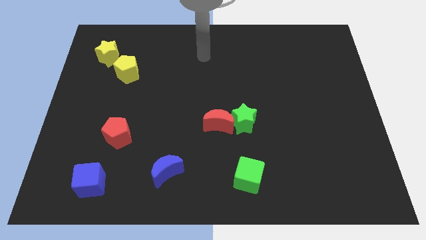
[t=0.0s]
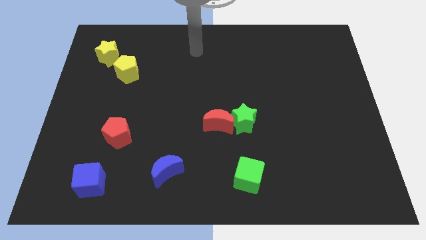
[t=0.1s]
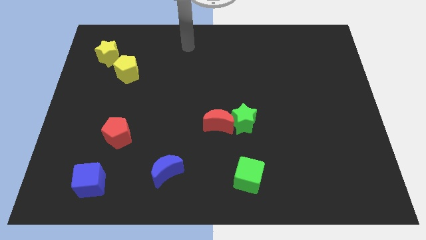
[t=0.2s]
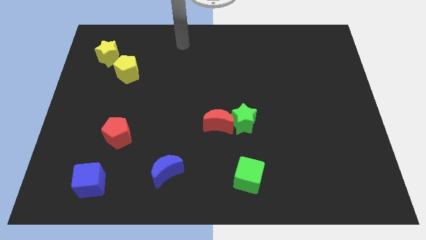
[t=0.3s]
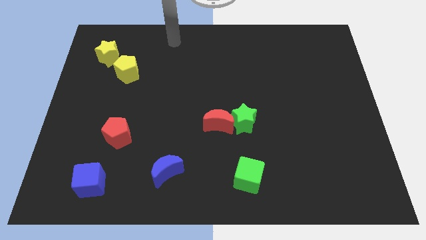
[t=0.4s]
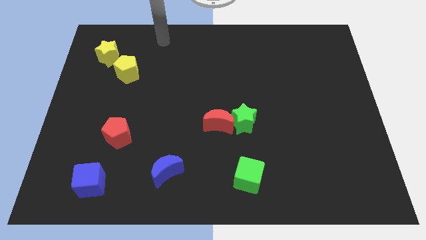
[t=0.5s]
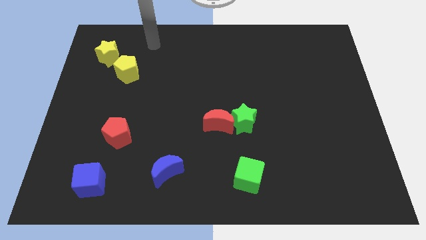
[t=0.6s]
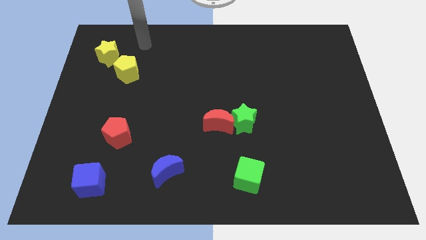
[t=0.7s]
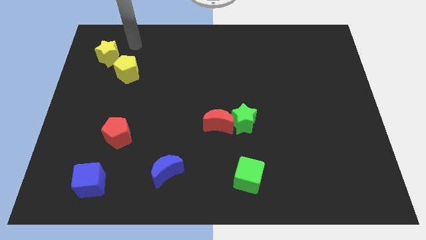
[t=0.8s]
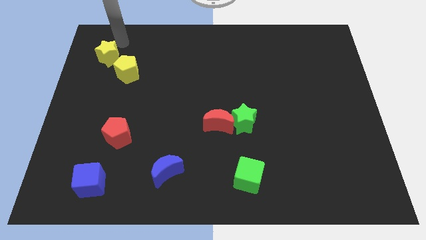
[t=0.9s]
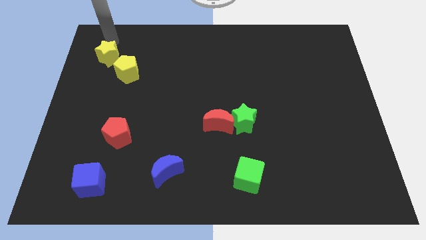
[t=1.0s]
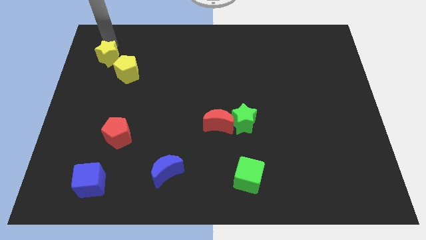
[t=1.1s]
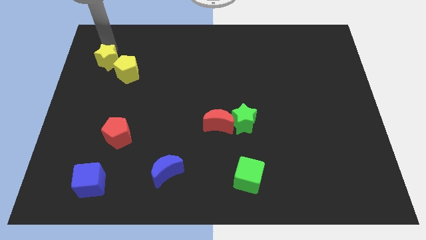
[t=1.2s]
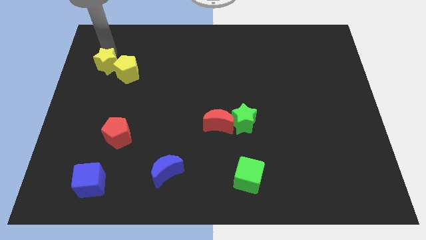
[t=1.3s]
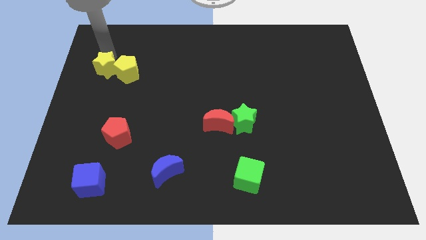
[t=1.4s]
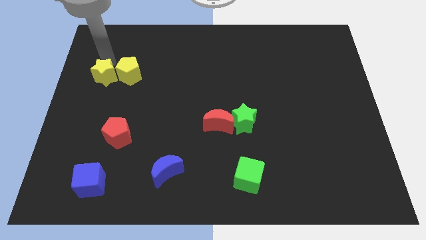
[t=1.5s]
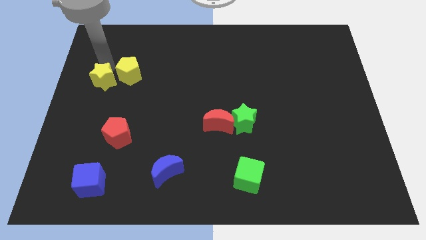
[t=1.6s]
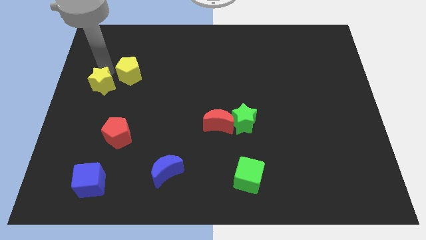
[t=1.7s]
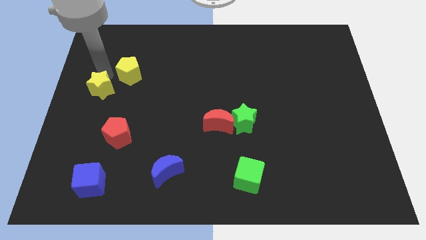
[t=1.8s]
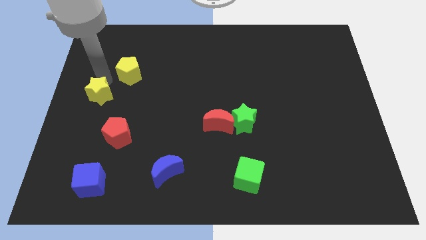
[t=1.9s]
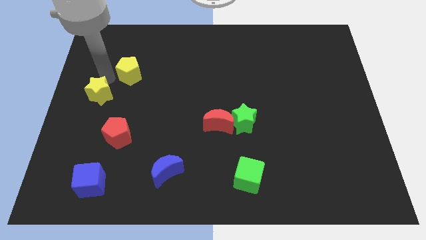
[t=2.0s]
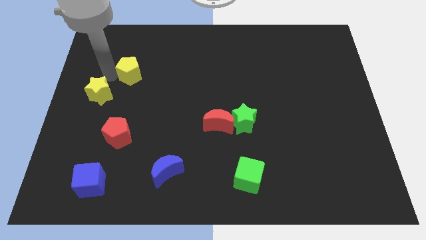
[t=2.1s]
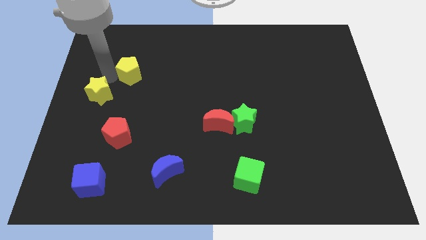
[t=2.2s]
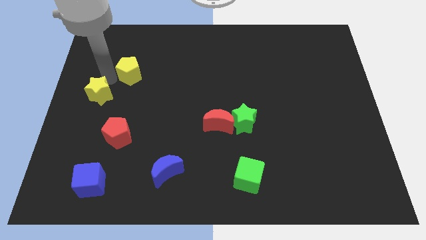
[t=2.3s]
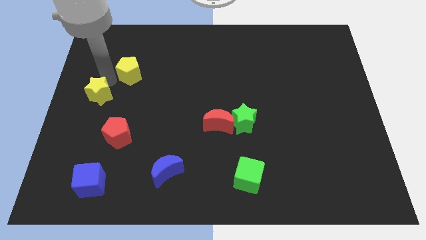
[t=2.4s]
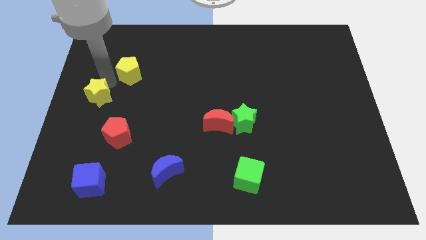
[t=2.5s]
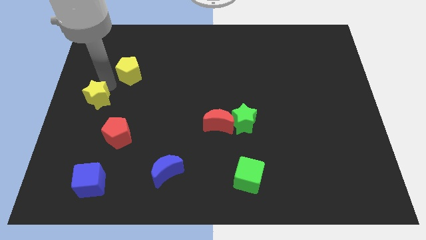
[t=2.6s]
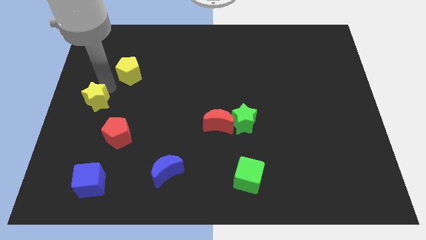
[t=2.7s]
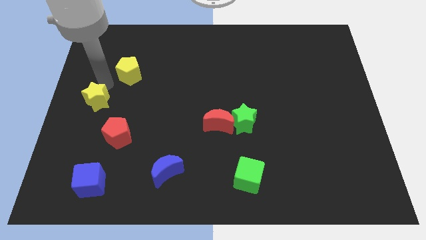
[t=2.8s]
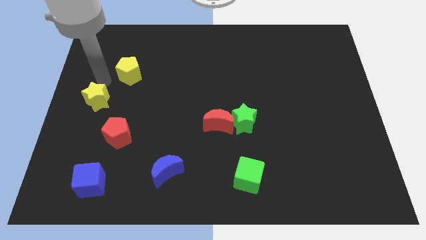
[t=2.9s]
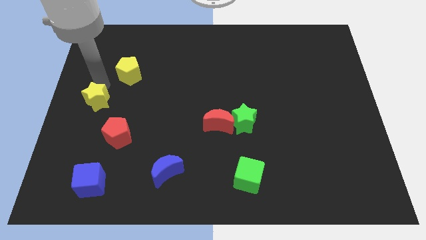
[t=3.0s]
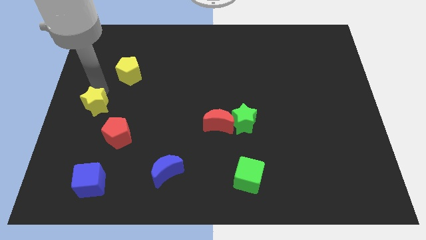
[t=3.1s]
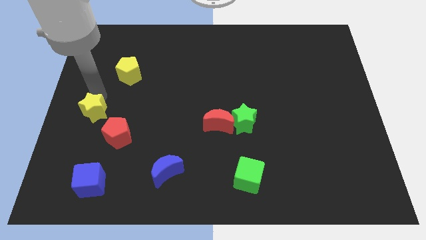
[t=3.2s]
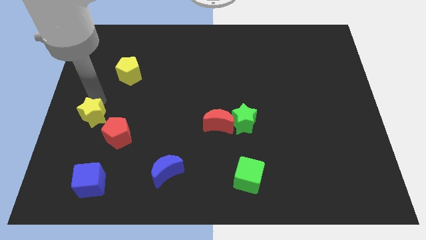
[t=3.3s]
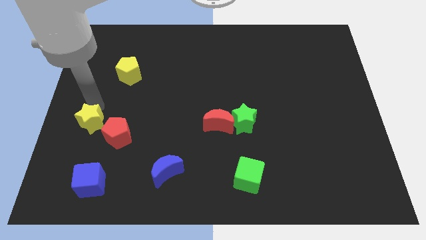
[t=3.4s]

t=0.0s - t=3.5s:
push the yellow star downwards

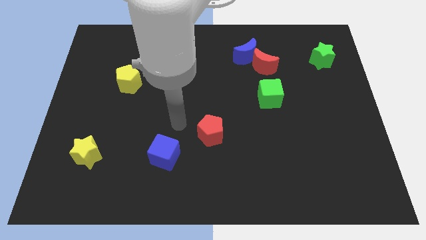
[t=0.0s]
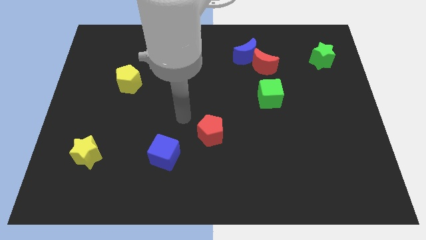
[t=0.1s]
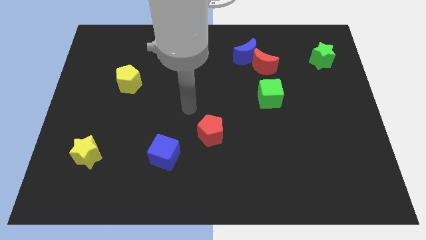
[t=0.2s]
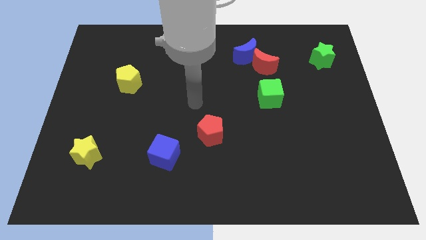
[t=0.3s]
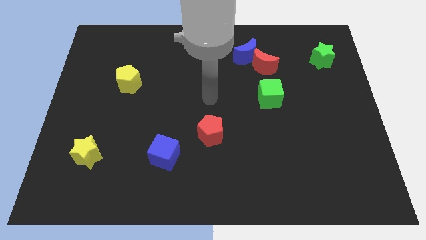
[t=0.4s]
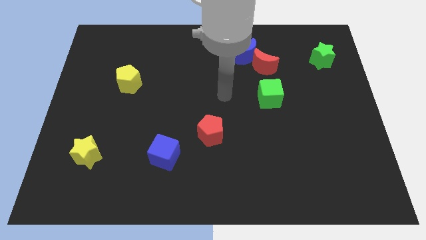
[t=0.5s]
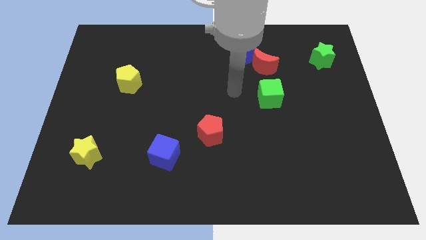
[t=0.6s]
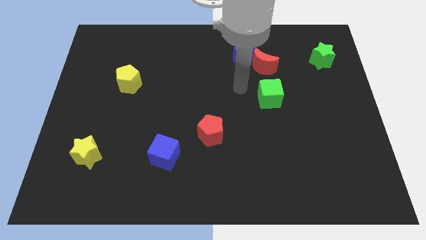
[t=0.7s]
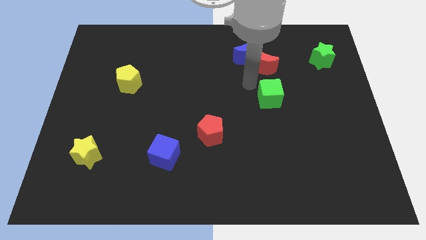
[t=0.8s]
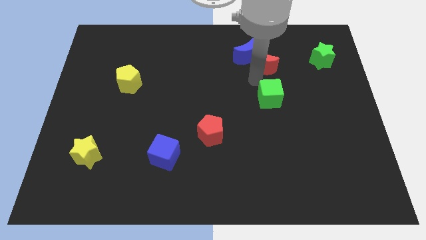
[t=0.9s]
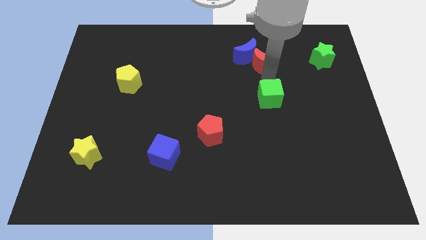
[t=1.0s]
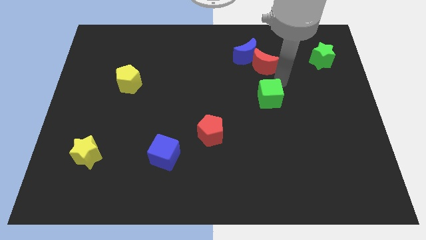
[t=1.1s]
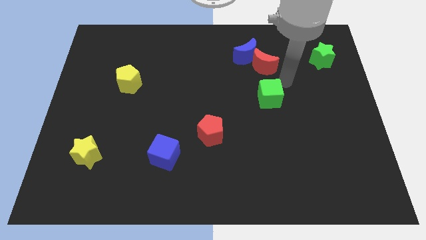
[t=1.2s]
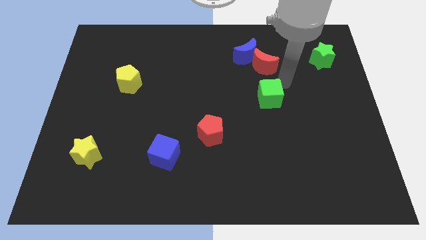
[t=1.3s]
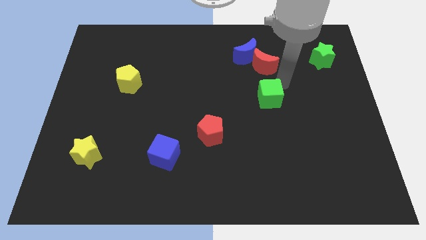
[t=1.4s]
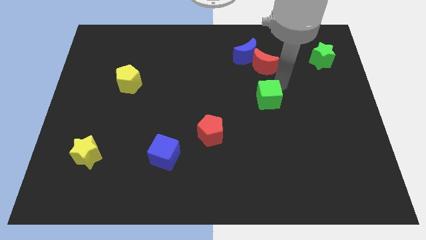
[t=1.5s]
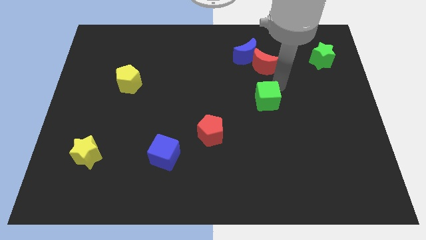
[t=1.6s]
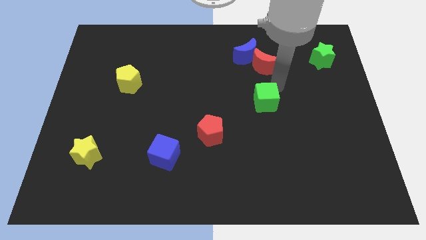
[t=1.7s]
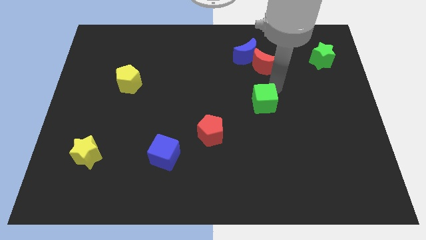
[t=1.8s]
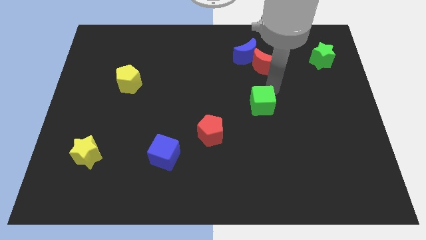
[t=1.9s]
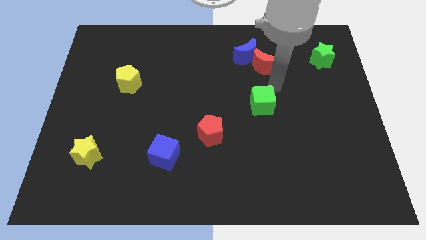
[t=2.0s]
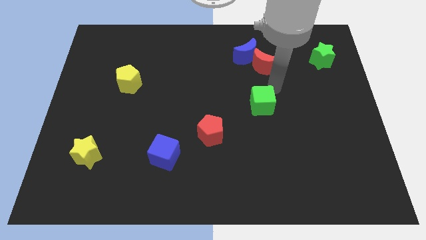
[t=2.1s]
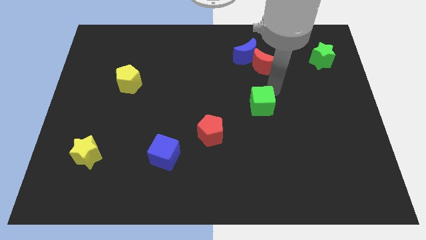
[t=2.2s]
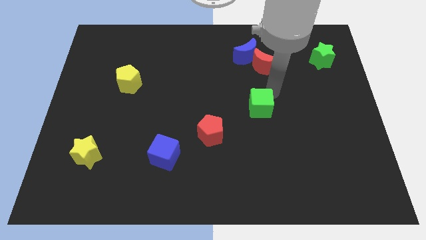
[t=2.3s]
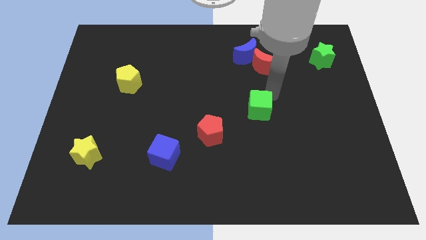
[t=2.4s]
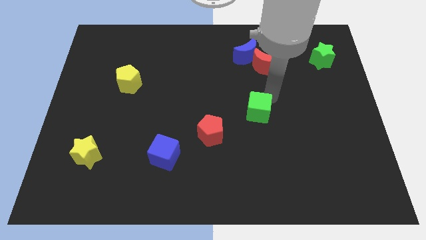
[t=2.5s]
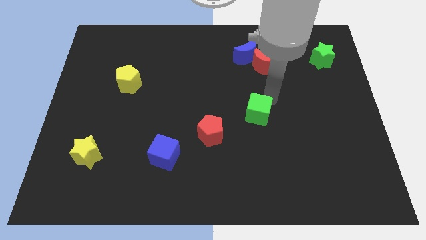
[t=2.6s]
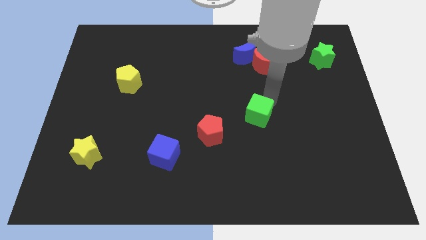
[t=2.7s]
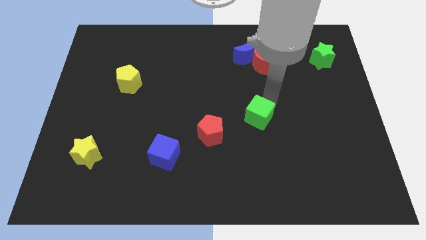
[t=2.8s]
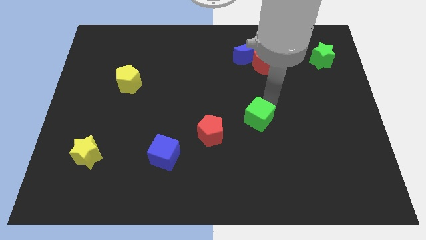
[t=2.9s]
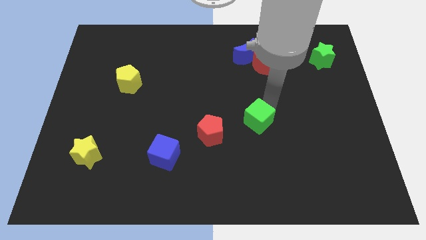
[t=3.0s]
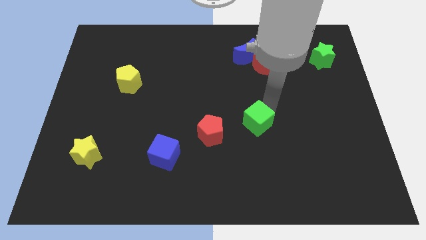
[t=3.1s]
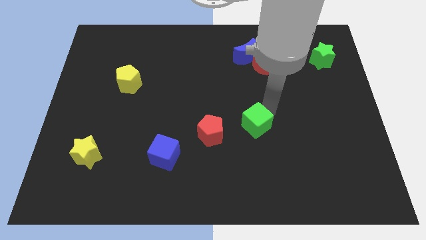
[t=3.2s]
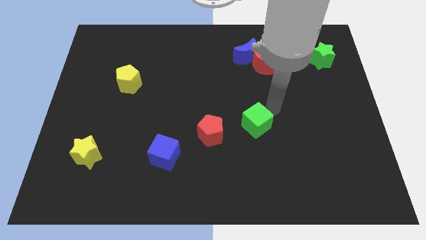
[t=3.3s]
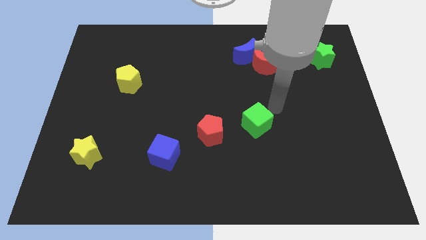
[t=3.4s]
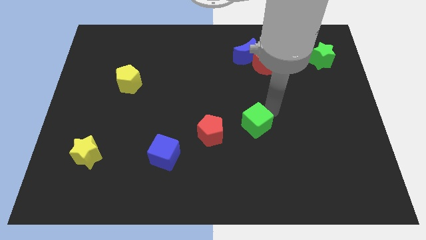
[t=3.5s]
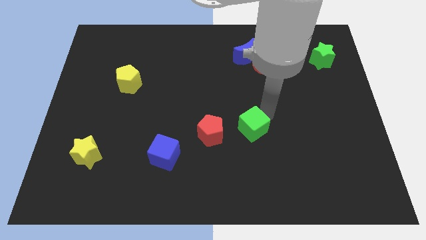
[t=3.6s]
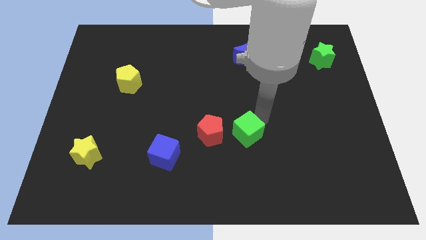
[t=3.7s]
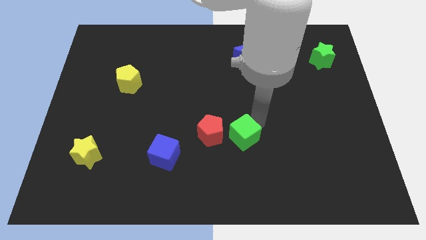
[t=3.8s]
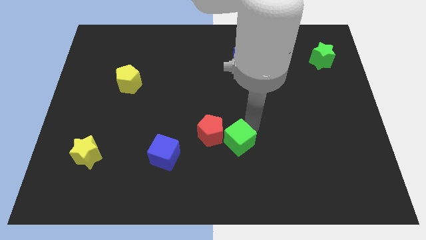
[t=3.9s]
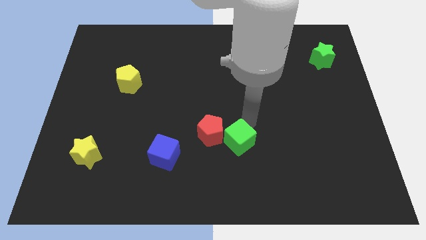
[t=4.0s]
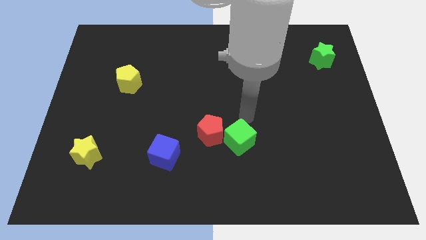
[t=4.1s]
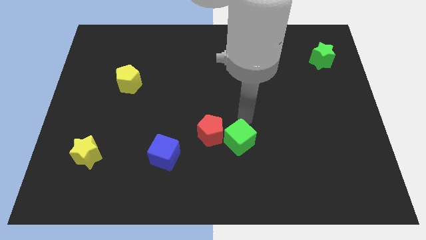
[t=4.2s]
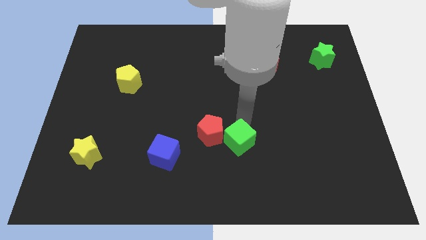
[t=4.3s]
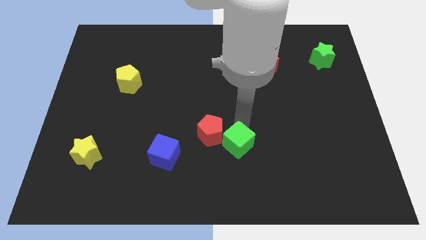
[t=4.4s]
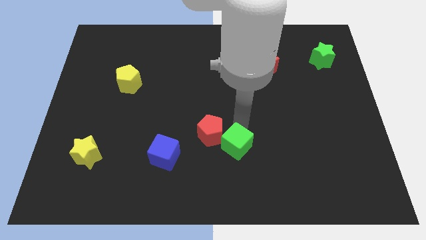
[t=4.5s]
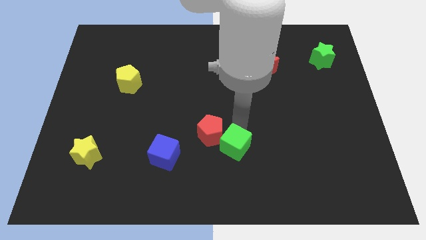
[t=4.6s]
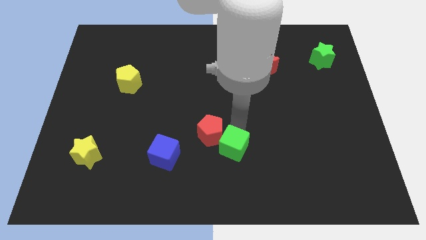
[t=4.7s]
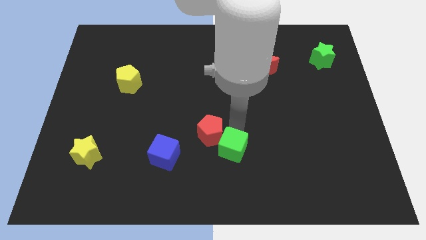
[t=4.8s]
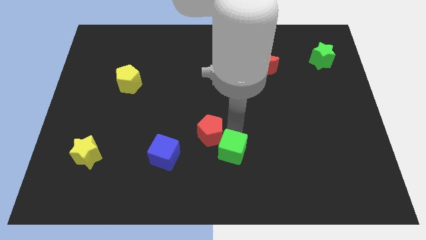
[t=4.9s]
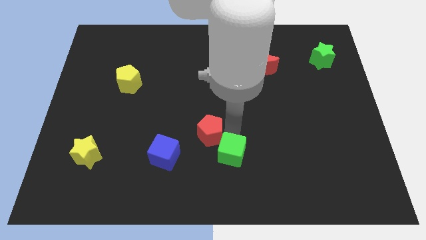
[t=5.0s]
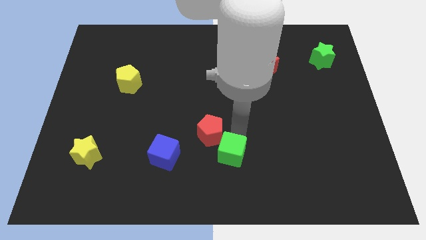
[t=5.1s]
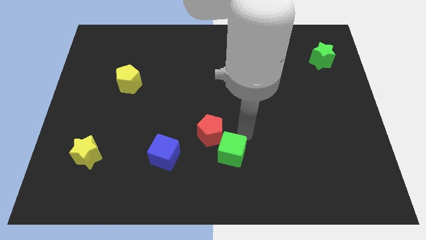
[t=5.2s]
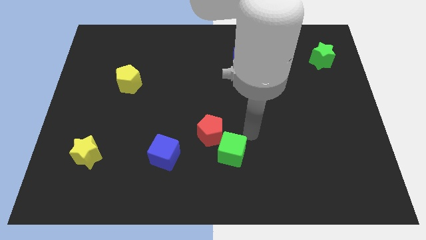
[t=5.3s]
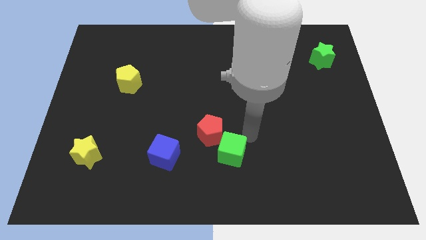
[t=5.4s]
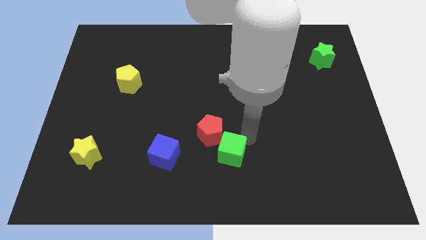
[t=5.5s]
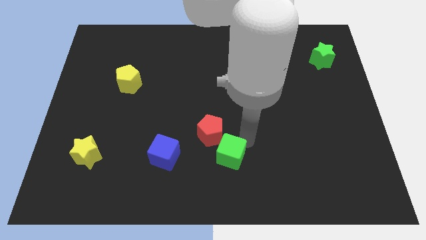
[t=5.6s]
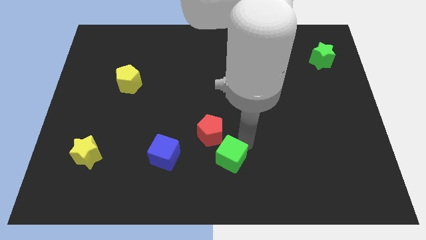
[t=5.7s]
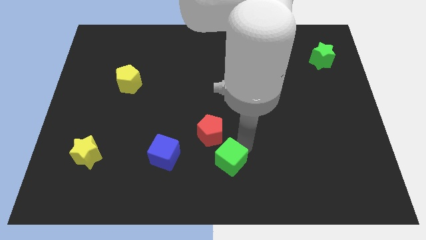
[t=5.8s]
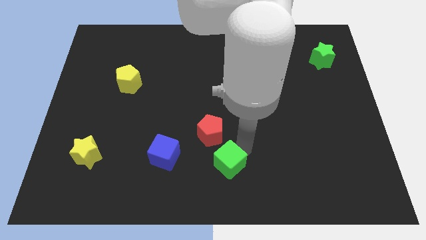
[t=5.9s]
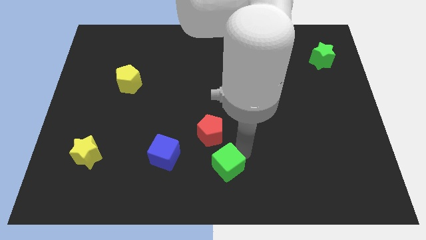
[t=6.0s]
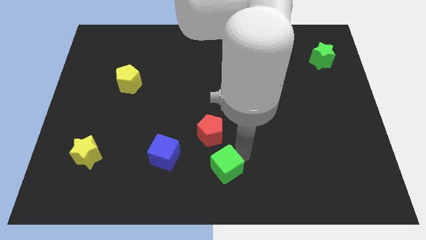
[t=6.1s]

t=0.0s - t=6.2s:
move the green cube down and left
